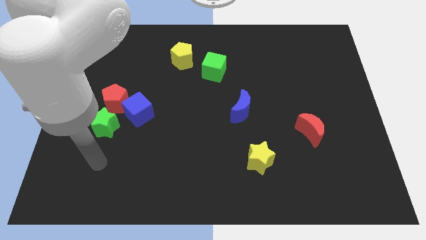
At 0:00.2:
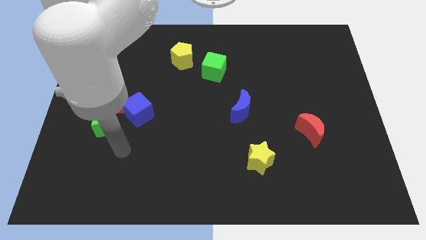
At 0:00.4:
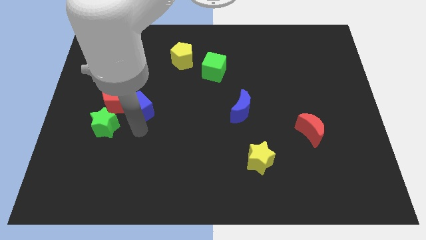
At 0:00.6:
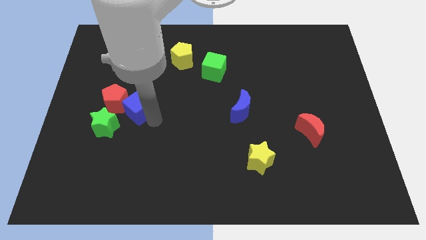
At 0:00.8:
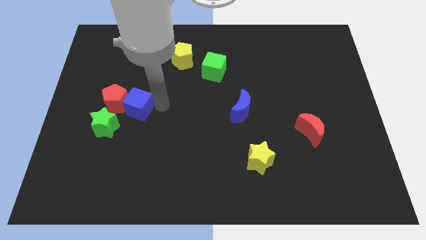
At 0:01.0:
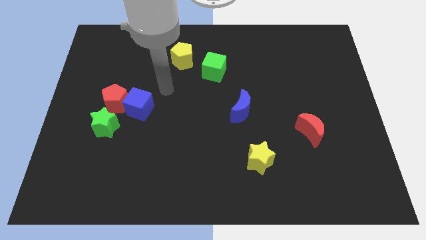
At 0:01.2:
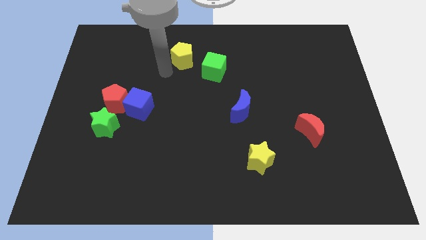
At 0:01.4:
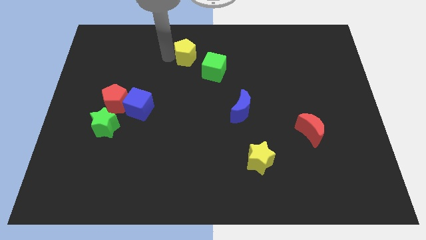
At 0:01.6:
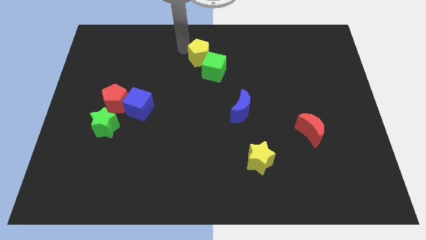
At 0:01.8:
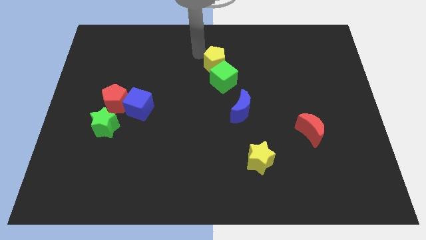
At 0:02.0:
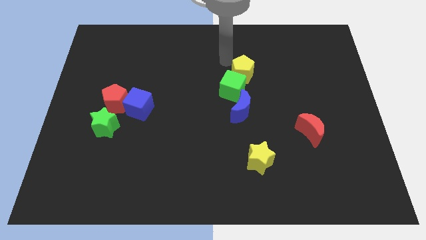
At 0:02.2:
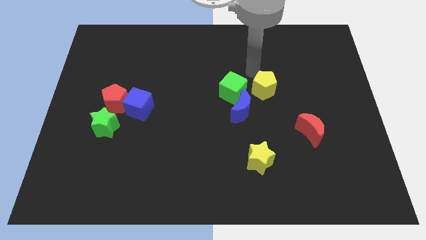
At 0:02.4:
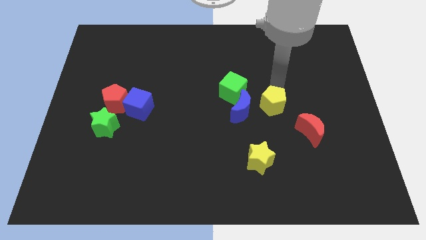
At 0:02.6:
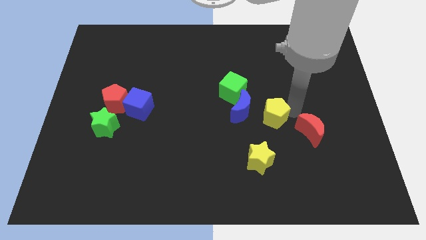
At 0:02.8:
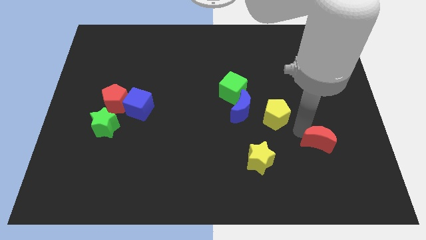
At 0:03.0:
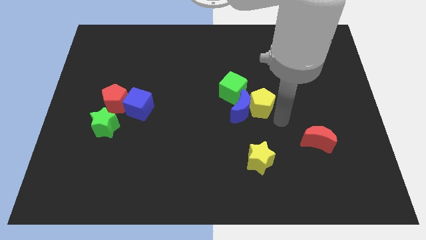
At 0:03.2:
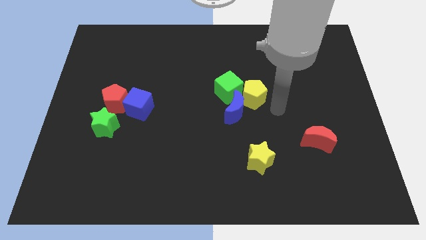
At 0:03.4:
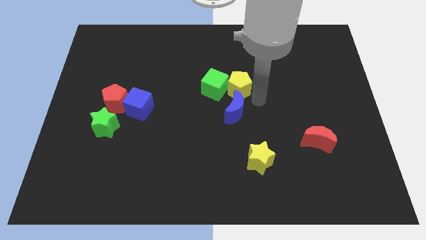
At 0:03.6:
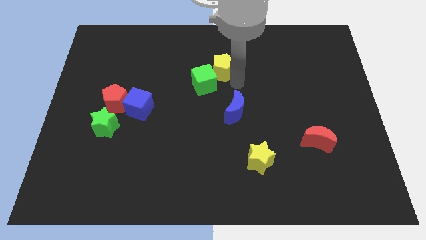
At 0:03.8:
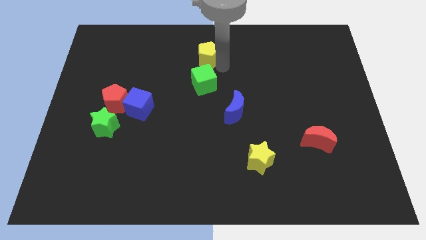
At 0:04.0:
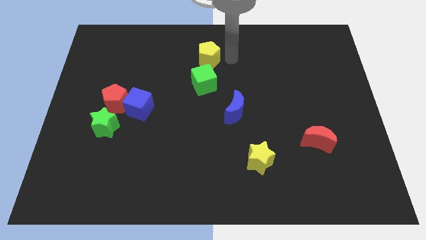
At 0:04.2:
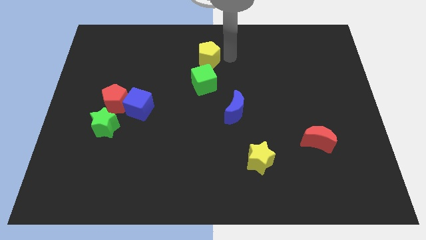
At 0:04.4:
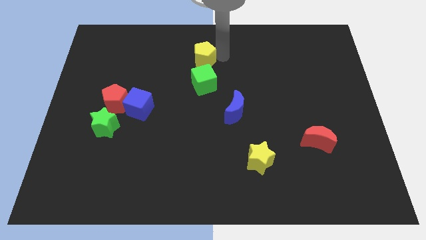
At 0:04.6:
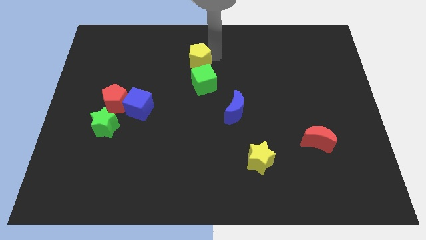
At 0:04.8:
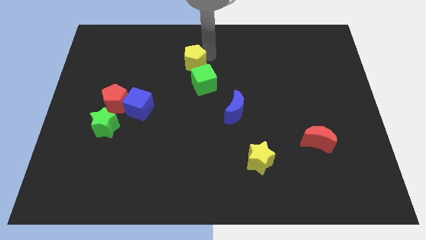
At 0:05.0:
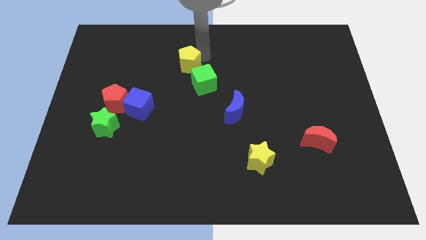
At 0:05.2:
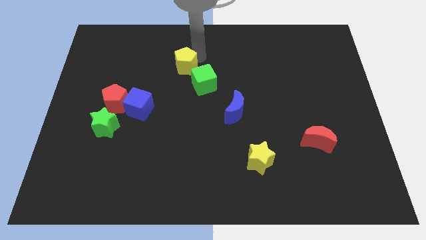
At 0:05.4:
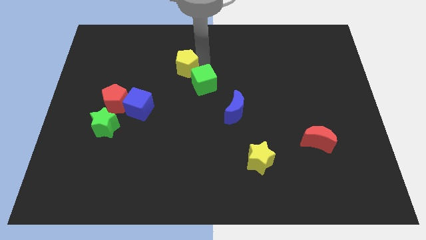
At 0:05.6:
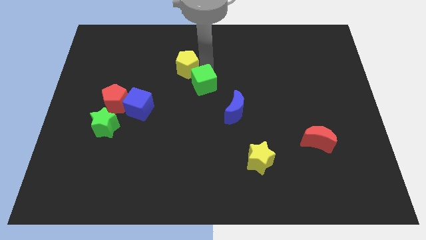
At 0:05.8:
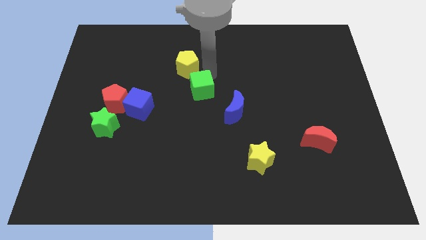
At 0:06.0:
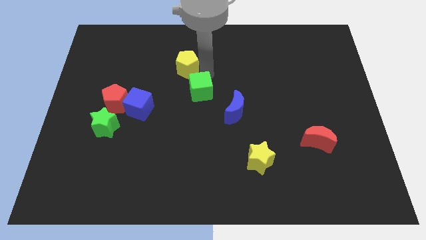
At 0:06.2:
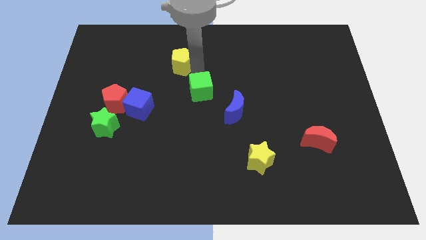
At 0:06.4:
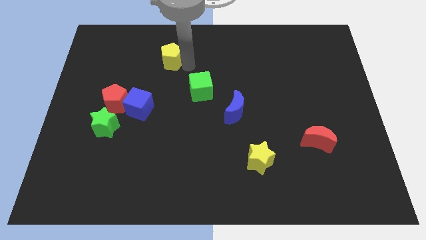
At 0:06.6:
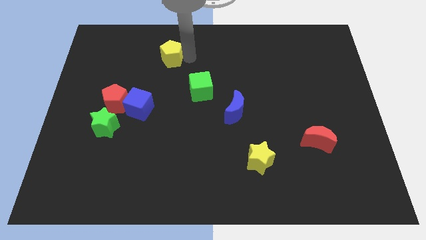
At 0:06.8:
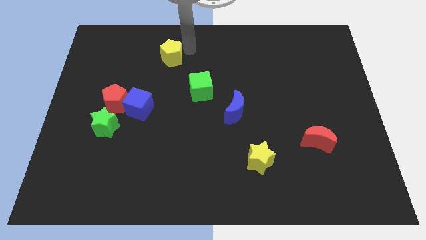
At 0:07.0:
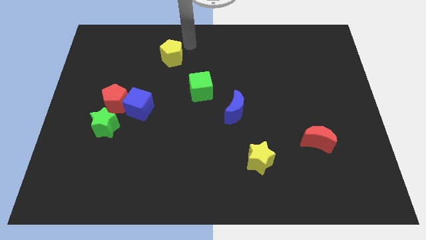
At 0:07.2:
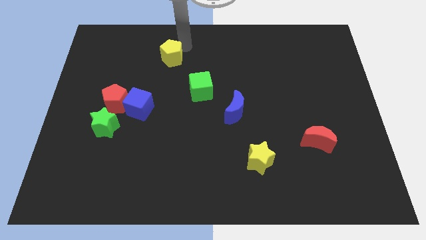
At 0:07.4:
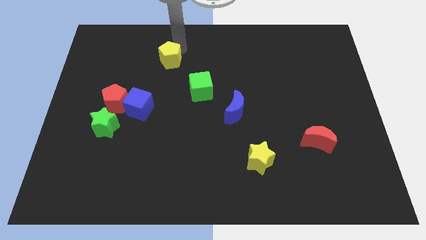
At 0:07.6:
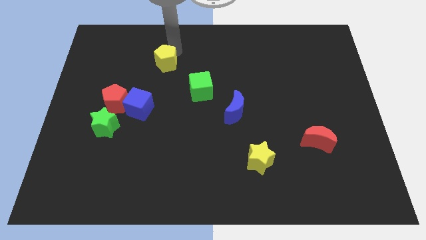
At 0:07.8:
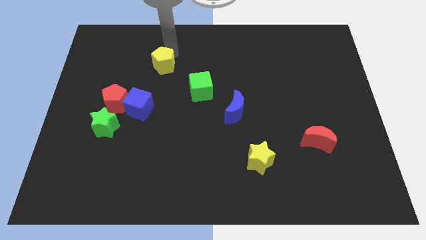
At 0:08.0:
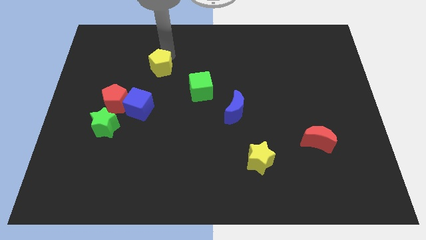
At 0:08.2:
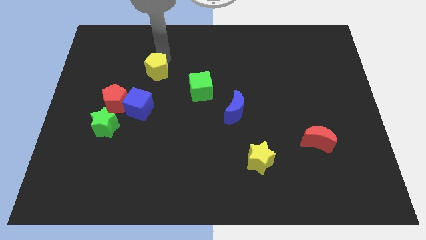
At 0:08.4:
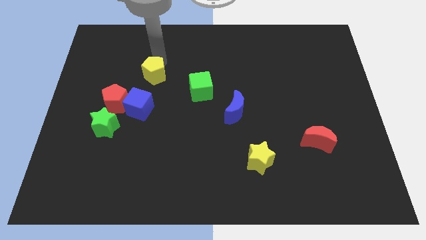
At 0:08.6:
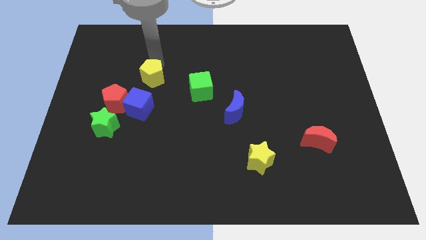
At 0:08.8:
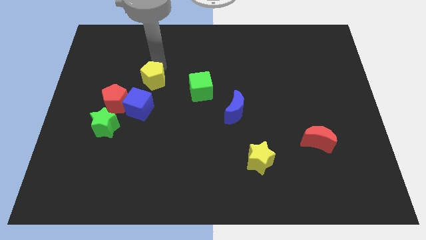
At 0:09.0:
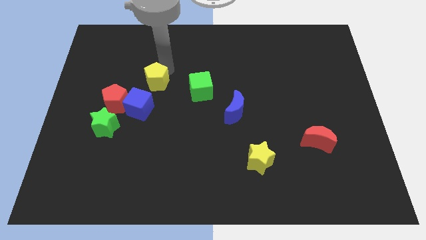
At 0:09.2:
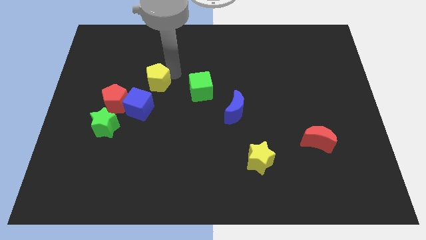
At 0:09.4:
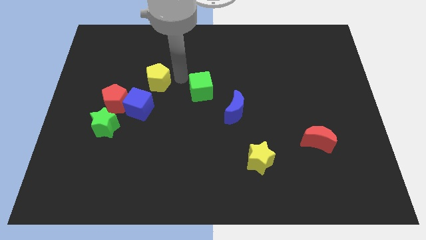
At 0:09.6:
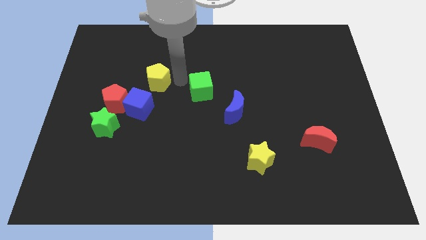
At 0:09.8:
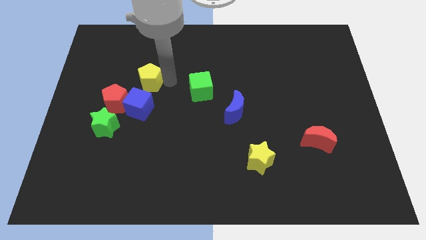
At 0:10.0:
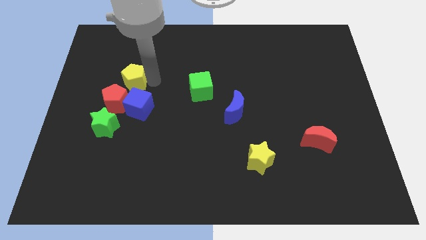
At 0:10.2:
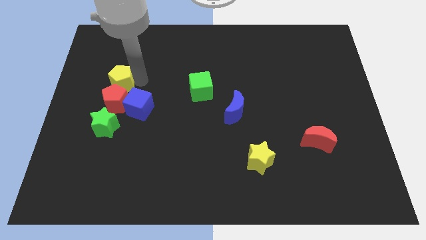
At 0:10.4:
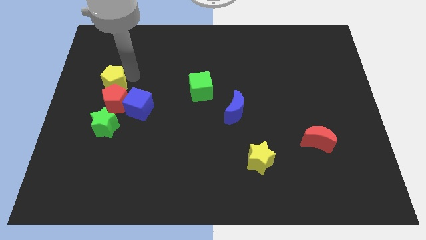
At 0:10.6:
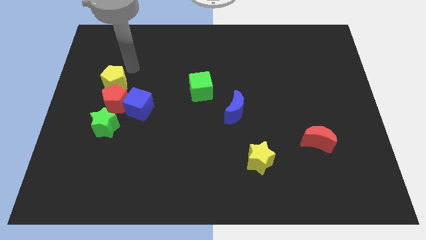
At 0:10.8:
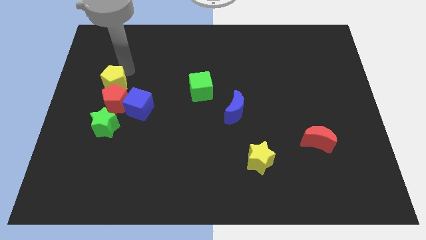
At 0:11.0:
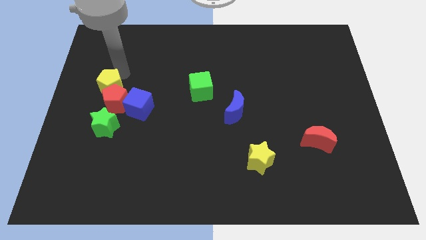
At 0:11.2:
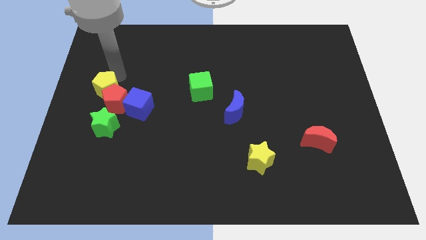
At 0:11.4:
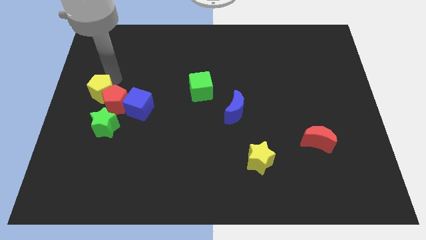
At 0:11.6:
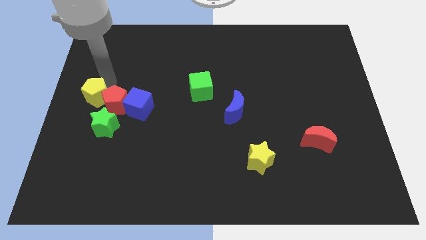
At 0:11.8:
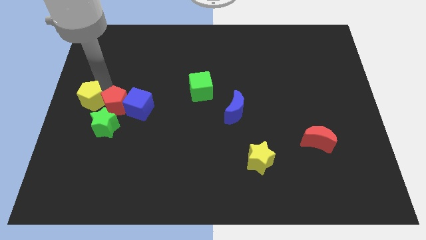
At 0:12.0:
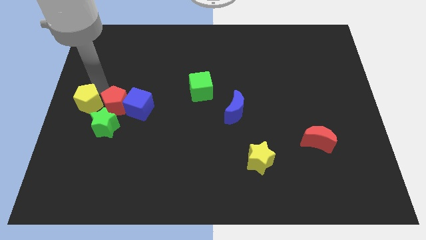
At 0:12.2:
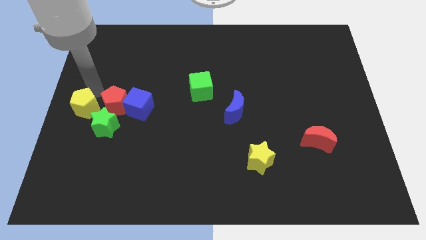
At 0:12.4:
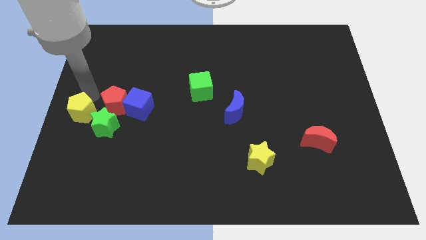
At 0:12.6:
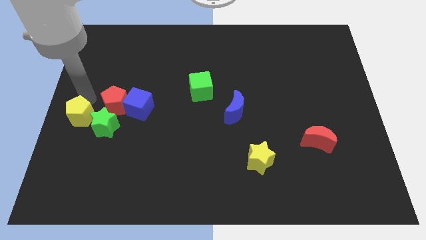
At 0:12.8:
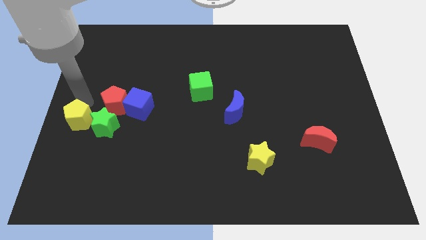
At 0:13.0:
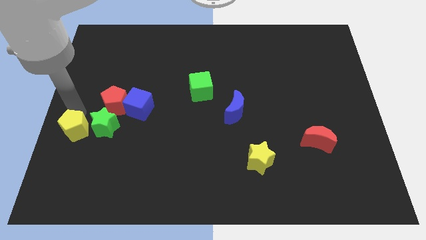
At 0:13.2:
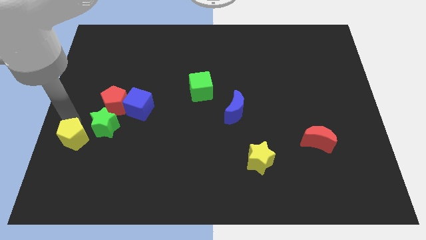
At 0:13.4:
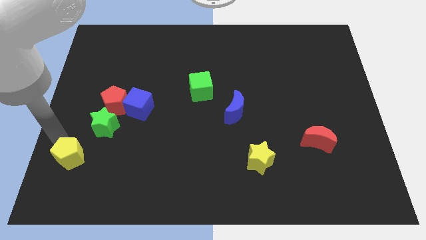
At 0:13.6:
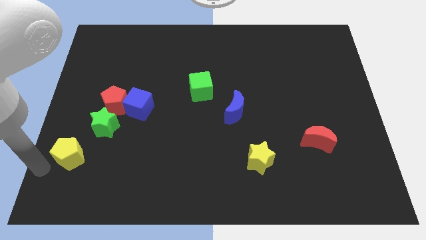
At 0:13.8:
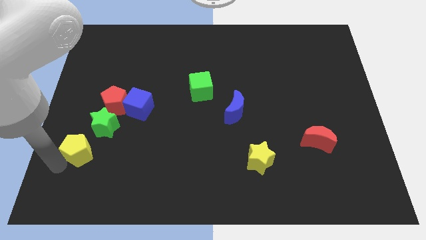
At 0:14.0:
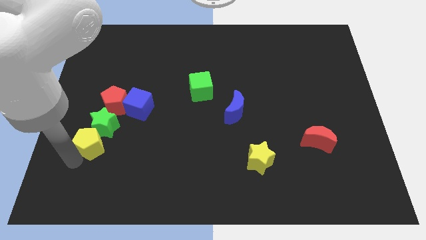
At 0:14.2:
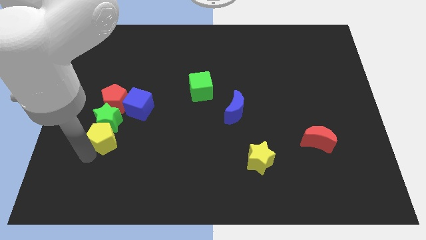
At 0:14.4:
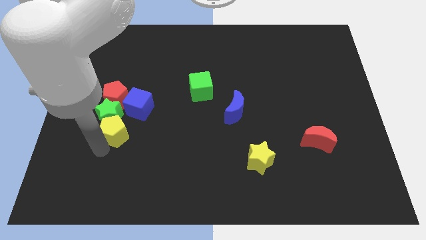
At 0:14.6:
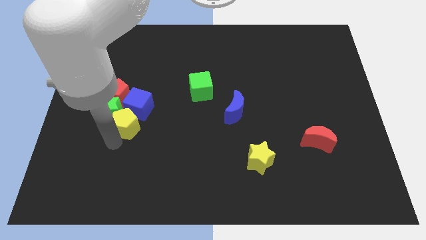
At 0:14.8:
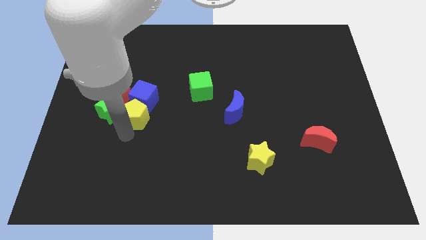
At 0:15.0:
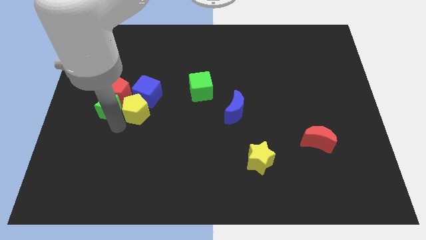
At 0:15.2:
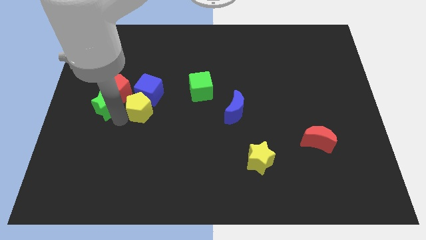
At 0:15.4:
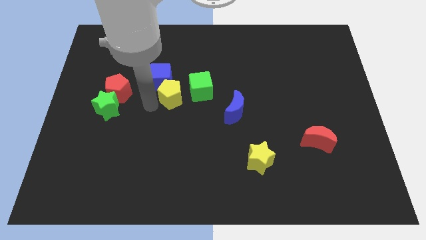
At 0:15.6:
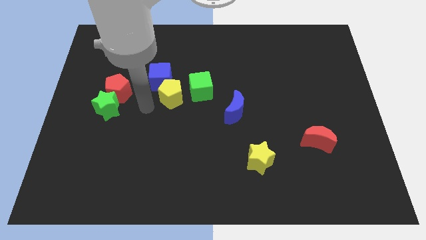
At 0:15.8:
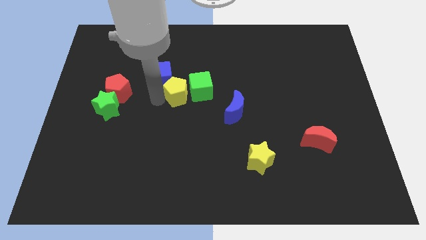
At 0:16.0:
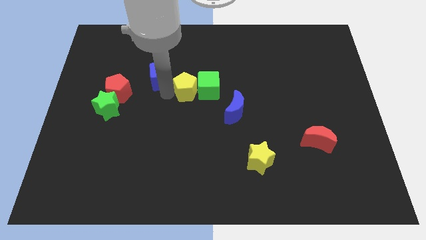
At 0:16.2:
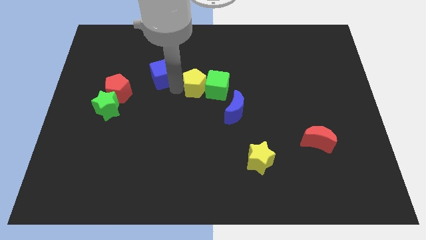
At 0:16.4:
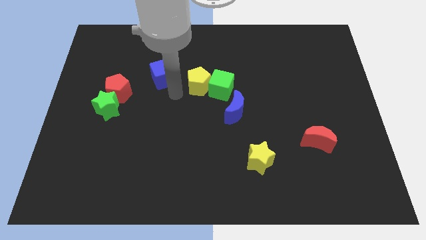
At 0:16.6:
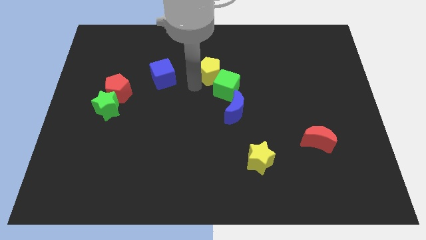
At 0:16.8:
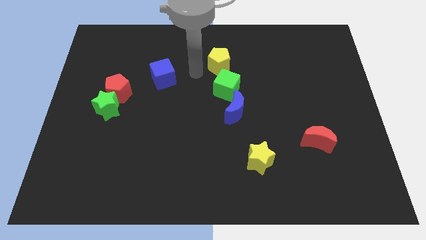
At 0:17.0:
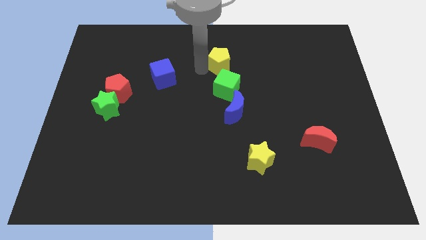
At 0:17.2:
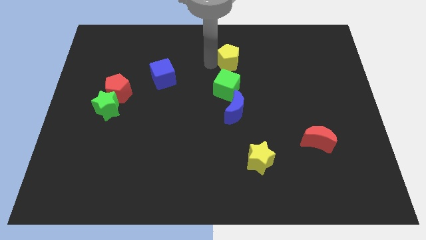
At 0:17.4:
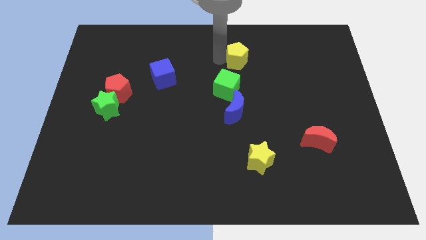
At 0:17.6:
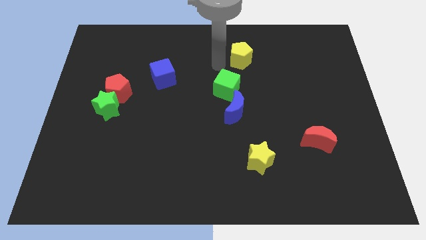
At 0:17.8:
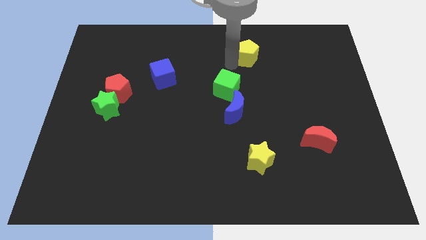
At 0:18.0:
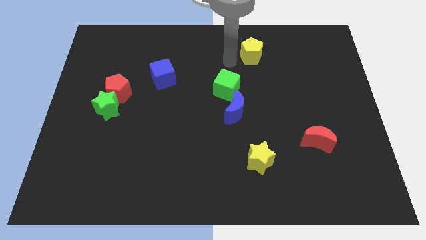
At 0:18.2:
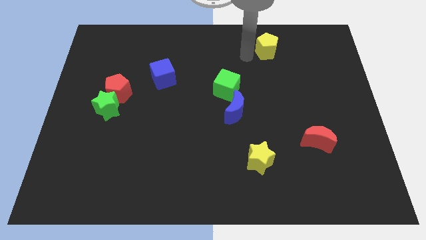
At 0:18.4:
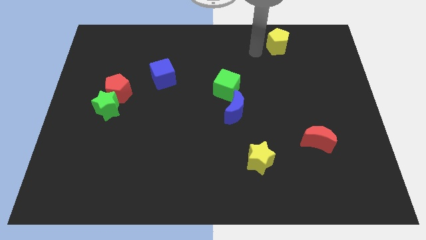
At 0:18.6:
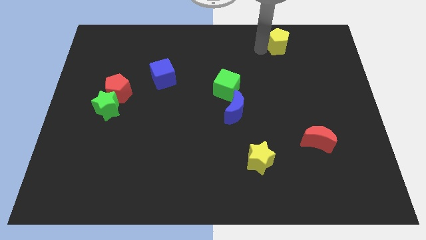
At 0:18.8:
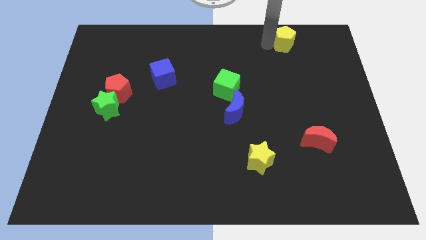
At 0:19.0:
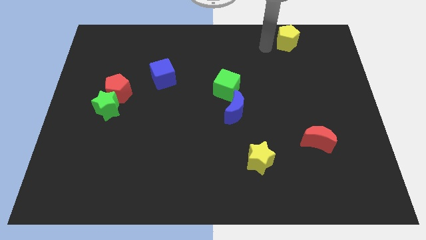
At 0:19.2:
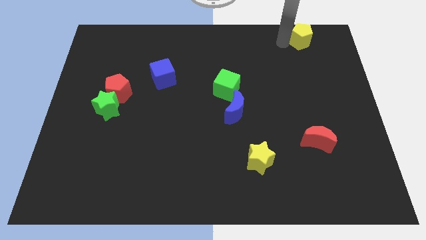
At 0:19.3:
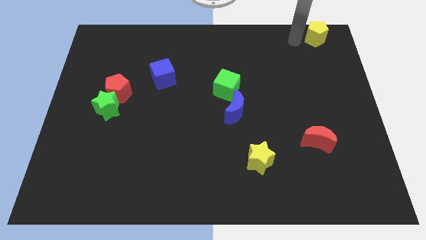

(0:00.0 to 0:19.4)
put the yellow pentagon to the top right
